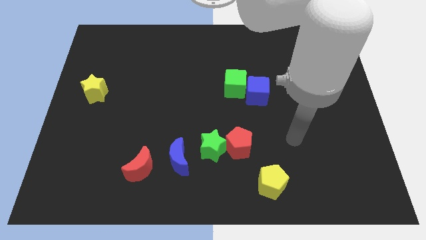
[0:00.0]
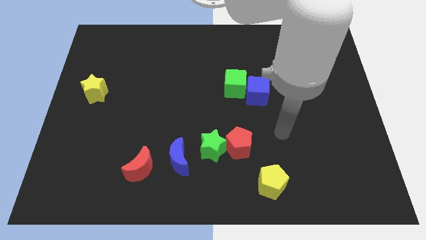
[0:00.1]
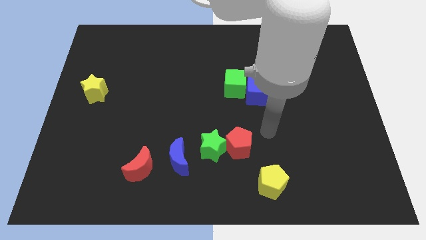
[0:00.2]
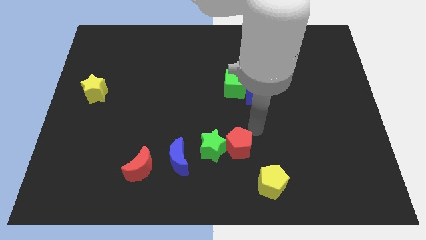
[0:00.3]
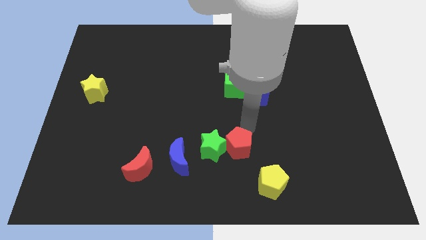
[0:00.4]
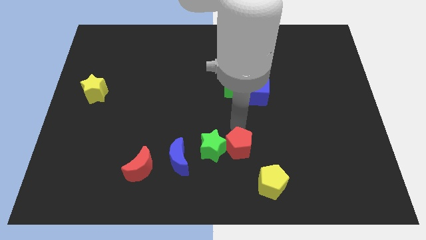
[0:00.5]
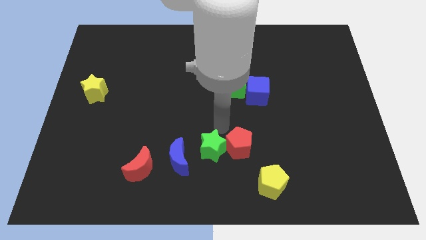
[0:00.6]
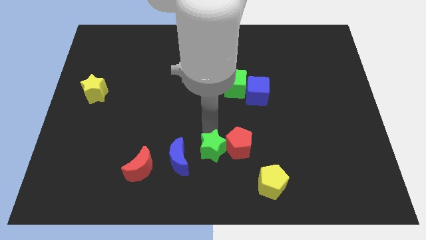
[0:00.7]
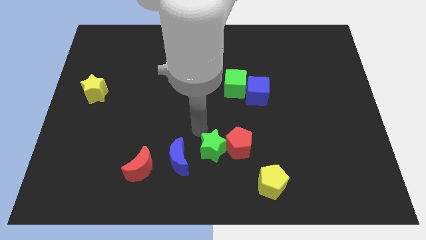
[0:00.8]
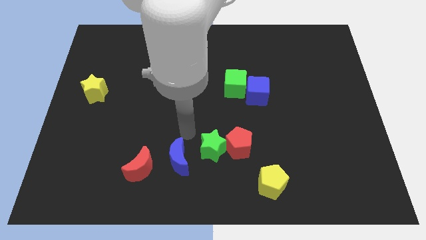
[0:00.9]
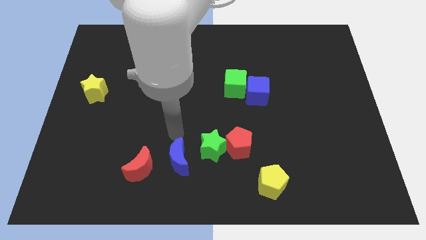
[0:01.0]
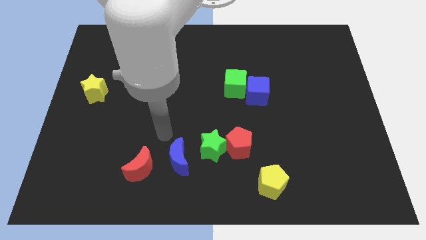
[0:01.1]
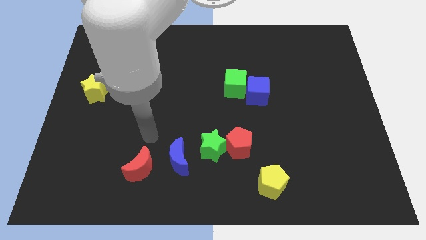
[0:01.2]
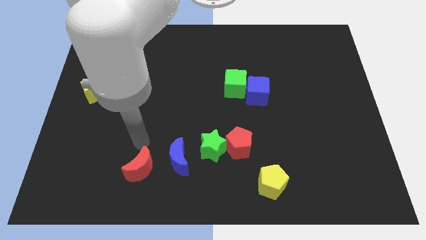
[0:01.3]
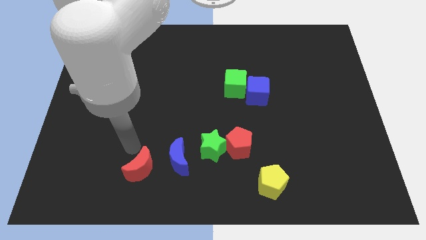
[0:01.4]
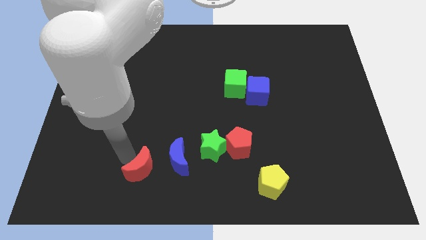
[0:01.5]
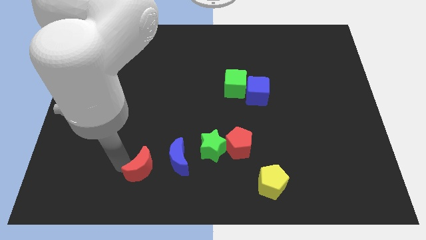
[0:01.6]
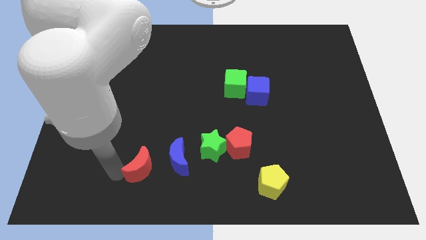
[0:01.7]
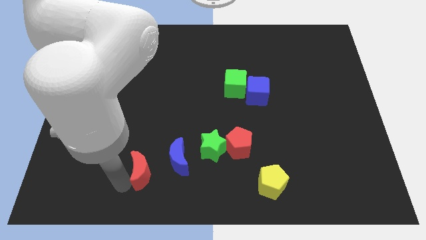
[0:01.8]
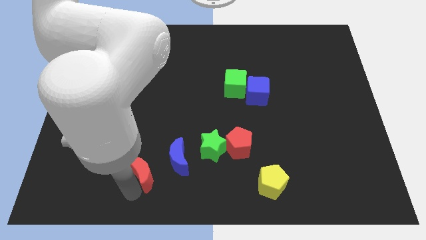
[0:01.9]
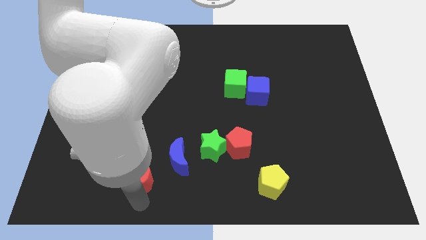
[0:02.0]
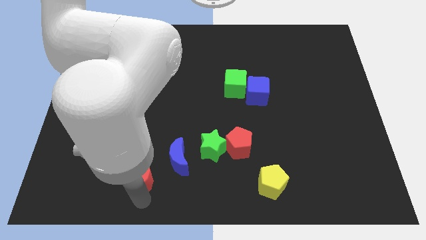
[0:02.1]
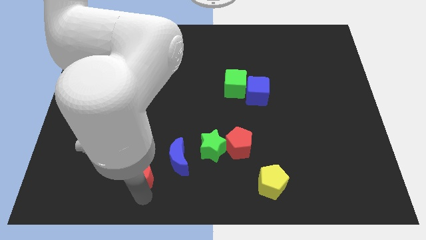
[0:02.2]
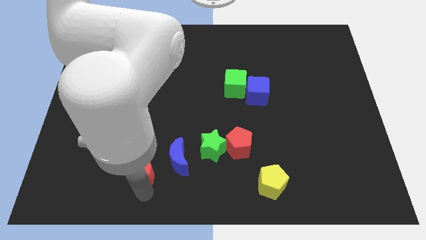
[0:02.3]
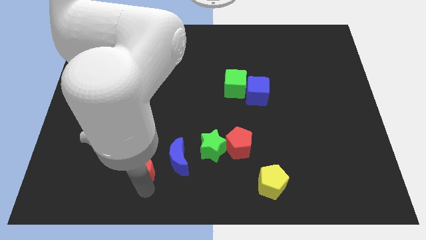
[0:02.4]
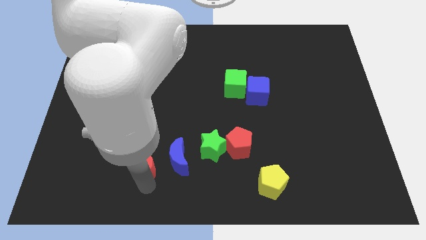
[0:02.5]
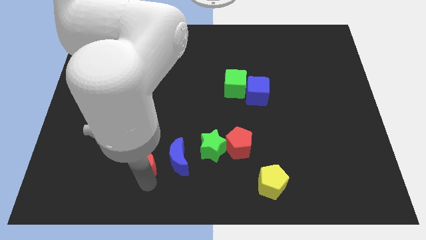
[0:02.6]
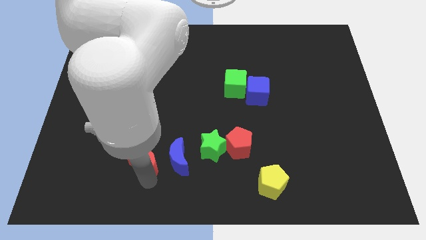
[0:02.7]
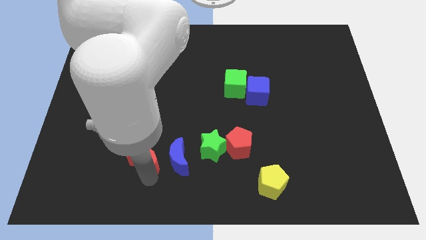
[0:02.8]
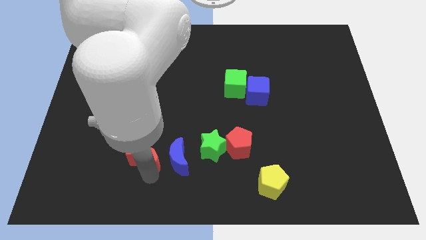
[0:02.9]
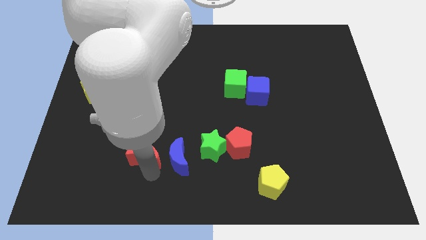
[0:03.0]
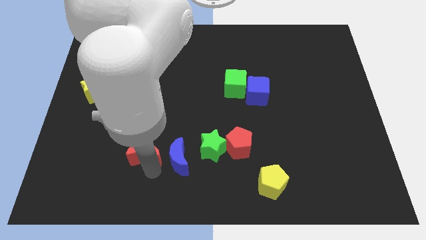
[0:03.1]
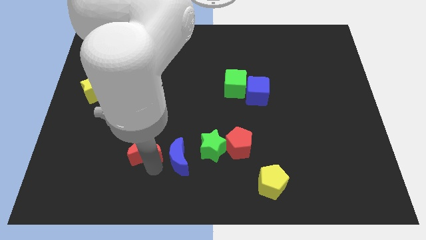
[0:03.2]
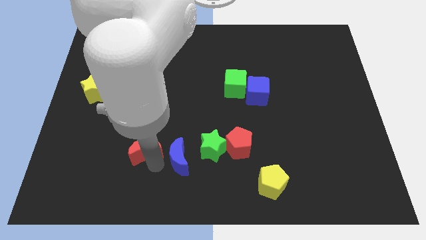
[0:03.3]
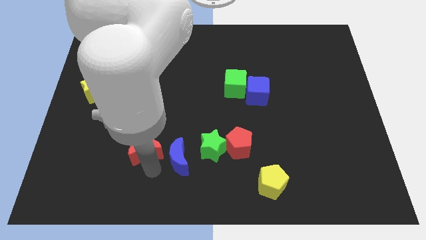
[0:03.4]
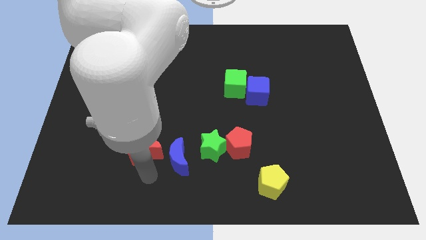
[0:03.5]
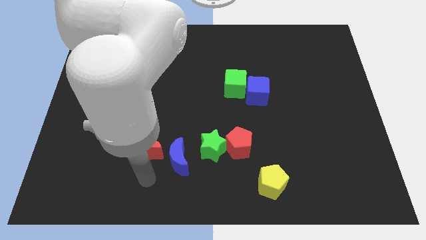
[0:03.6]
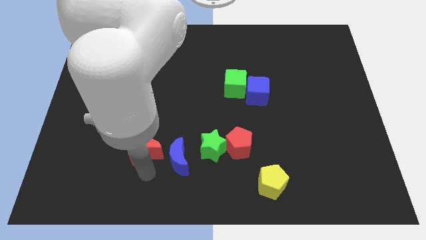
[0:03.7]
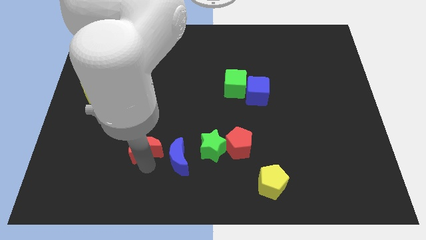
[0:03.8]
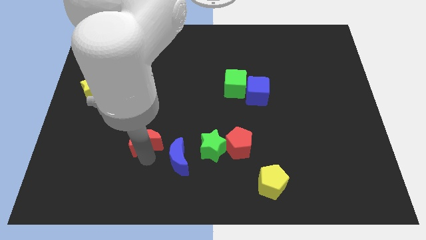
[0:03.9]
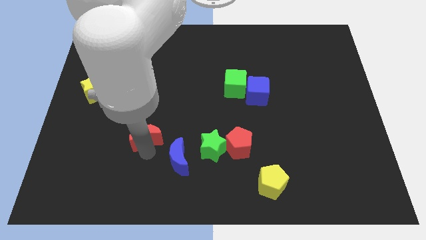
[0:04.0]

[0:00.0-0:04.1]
move the red moon a bit upwards

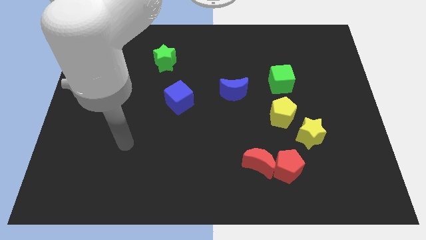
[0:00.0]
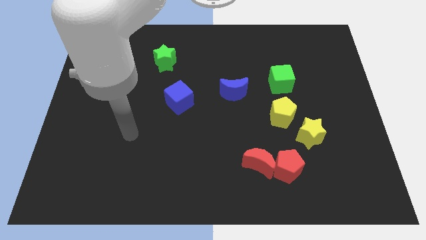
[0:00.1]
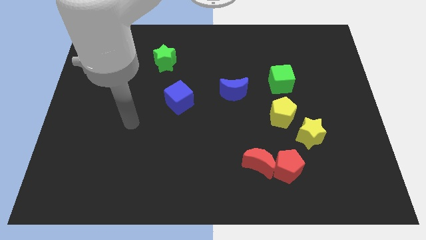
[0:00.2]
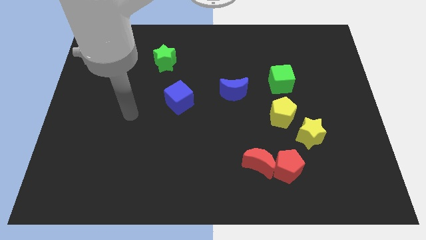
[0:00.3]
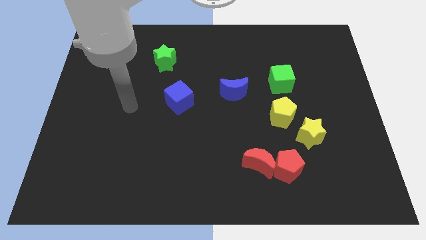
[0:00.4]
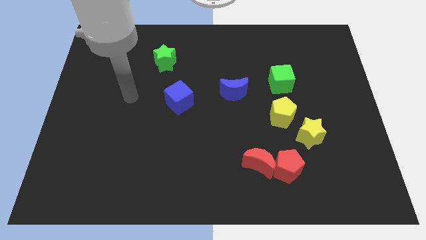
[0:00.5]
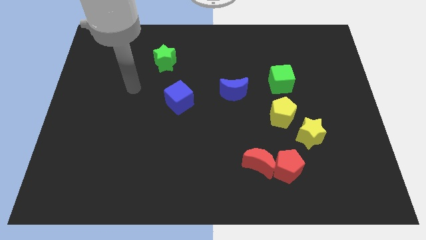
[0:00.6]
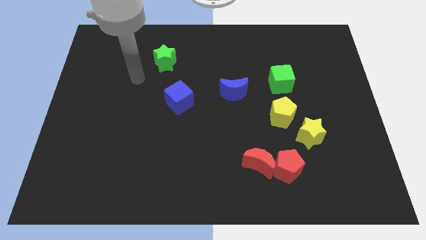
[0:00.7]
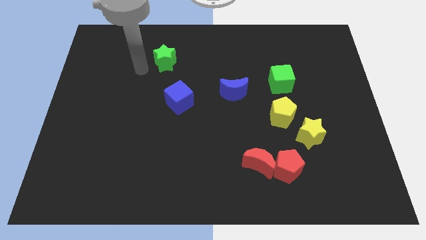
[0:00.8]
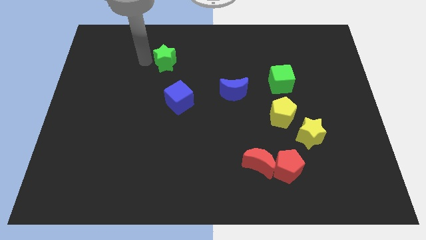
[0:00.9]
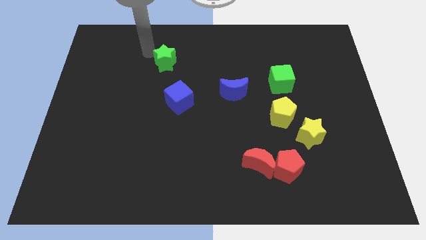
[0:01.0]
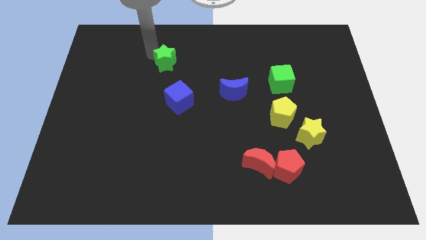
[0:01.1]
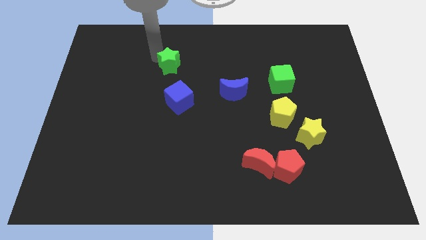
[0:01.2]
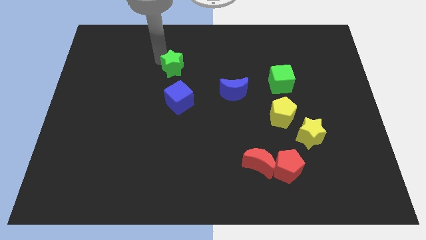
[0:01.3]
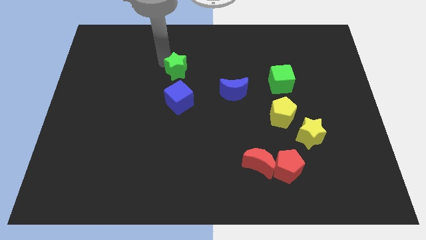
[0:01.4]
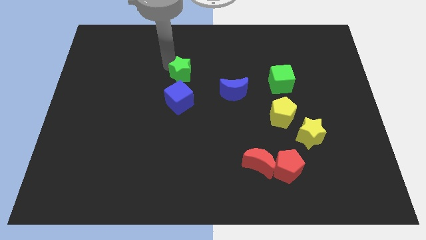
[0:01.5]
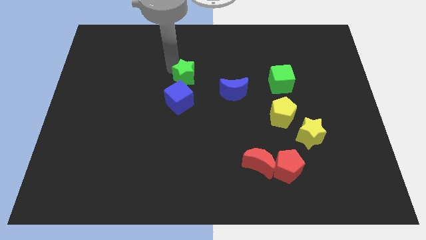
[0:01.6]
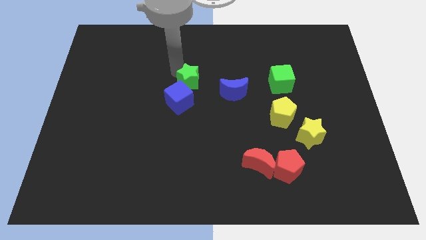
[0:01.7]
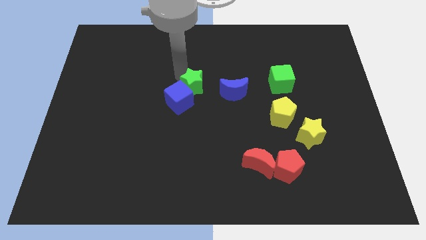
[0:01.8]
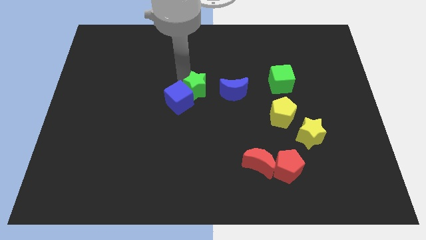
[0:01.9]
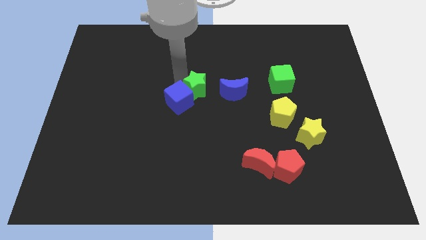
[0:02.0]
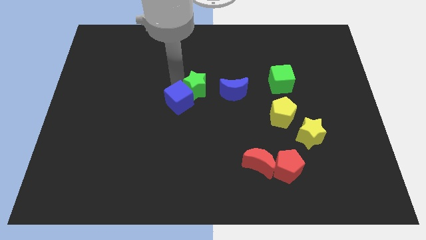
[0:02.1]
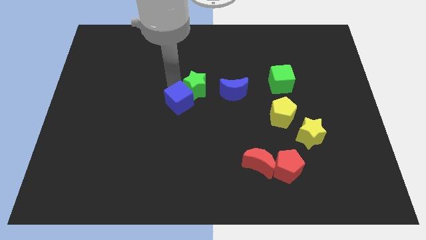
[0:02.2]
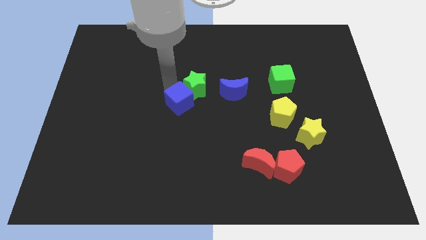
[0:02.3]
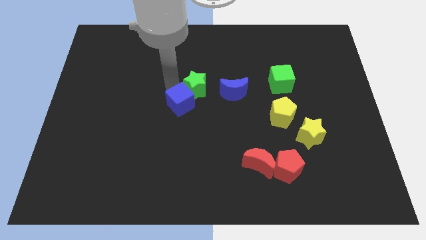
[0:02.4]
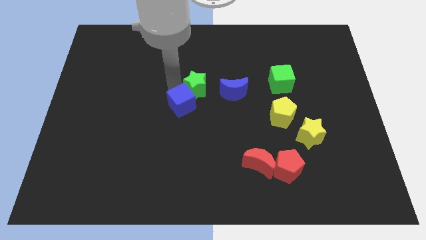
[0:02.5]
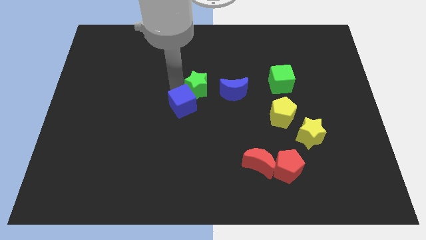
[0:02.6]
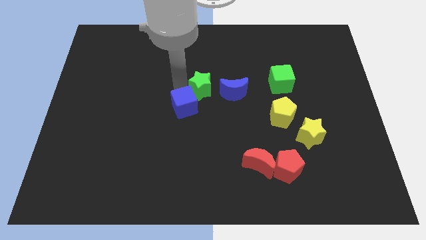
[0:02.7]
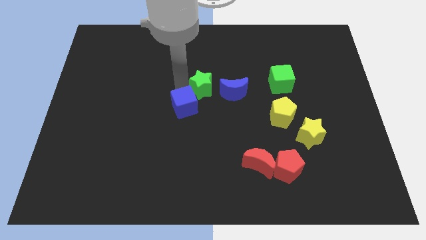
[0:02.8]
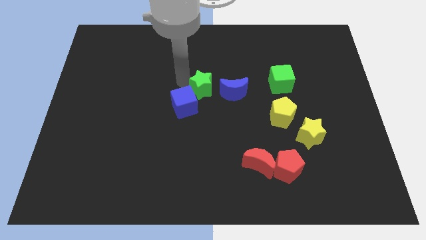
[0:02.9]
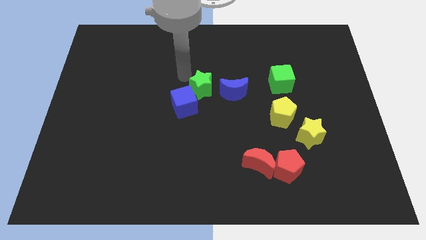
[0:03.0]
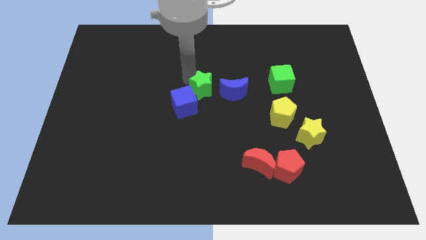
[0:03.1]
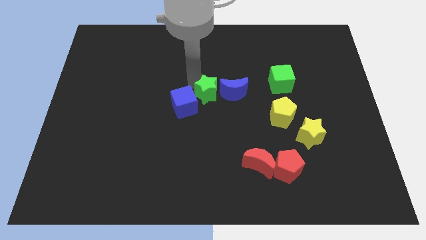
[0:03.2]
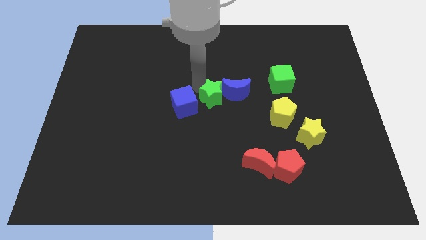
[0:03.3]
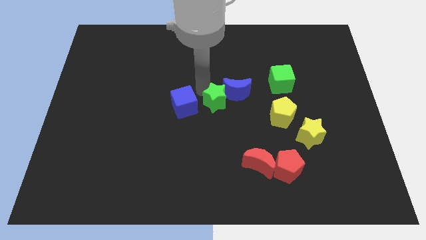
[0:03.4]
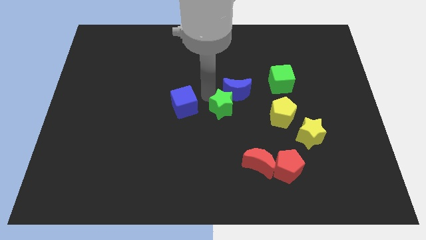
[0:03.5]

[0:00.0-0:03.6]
slide the green star downwards and right diagonally

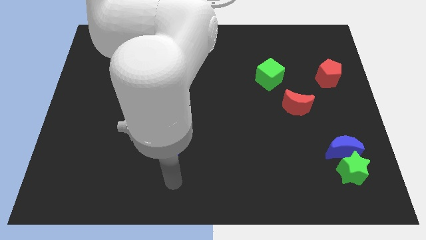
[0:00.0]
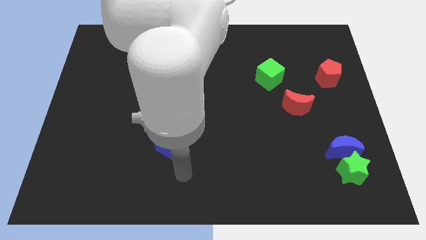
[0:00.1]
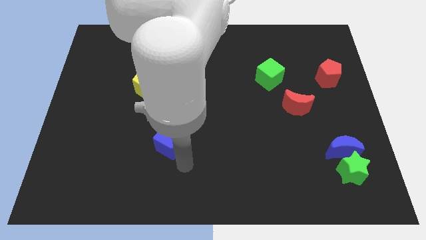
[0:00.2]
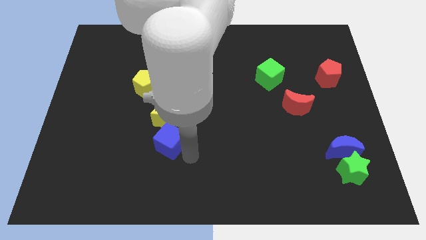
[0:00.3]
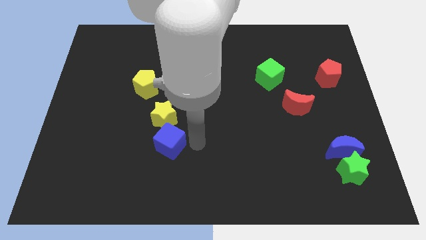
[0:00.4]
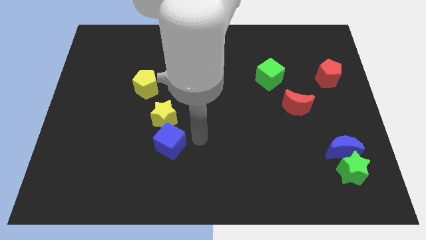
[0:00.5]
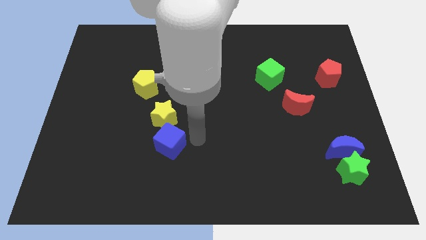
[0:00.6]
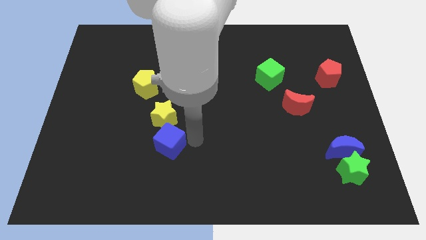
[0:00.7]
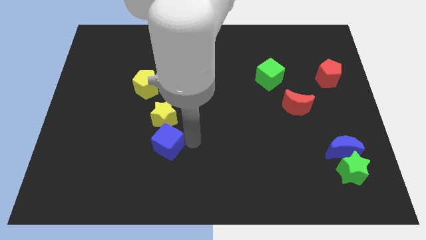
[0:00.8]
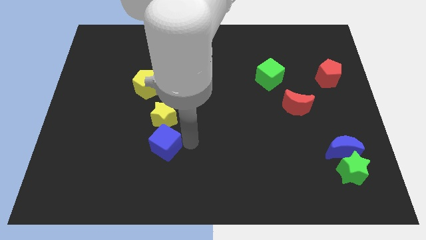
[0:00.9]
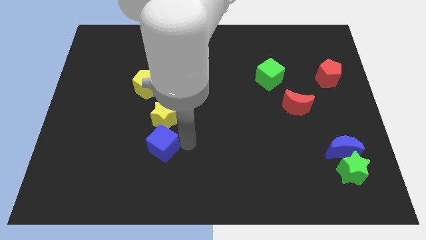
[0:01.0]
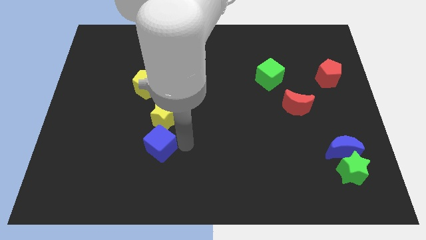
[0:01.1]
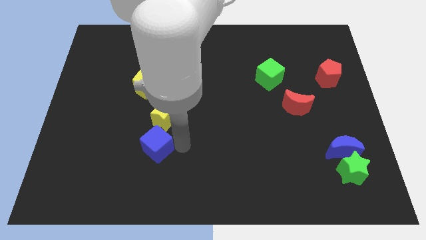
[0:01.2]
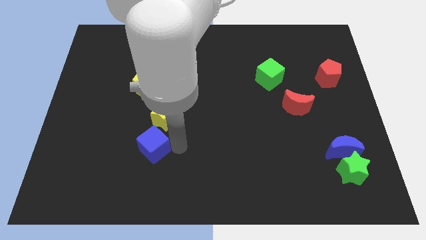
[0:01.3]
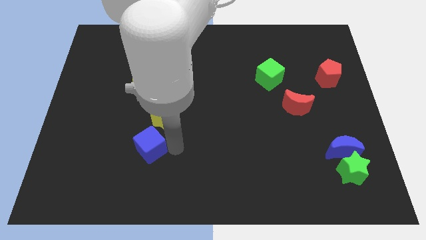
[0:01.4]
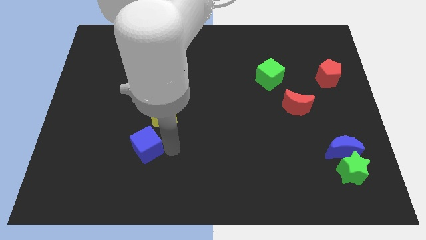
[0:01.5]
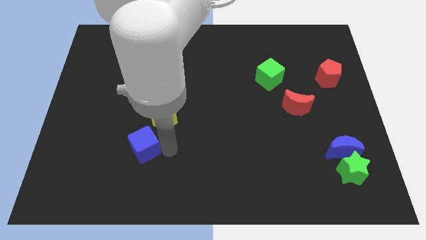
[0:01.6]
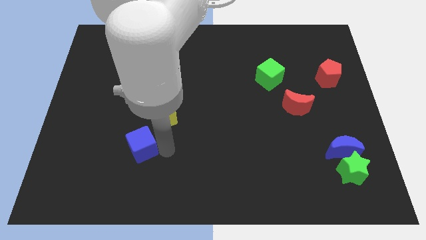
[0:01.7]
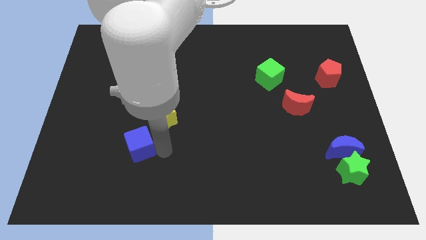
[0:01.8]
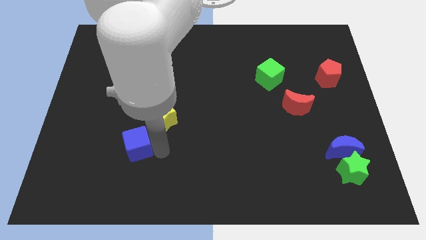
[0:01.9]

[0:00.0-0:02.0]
slightly push the blue cube left
